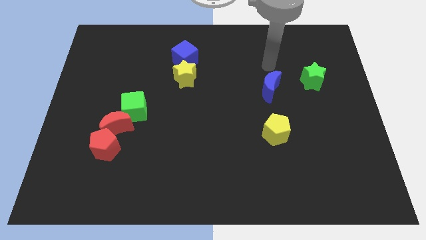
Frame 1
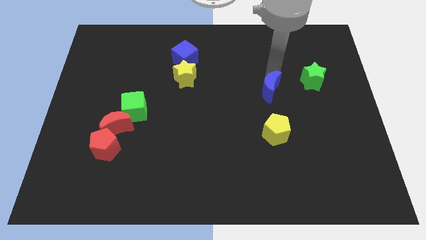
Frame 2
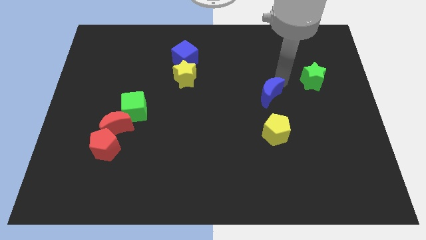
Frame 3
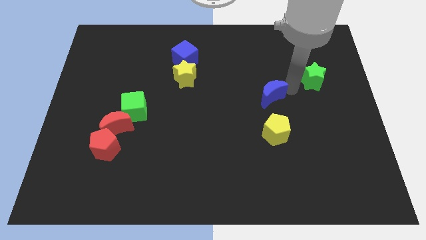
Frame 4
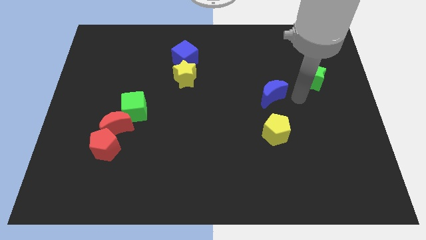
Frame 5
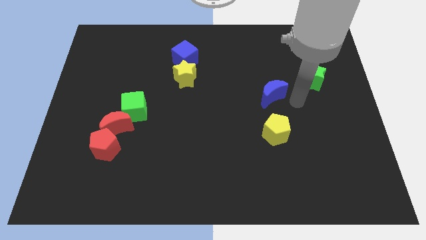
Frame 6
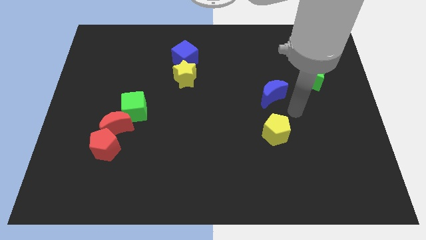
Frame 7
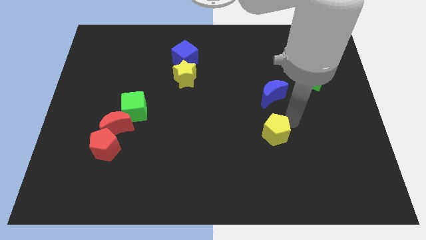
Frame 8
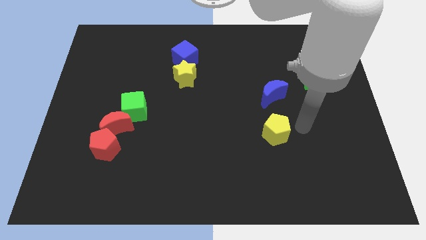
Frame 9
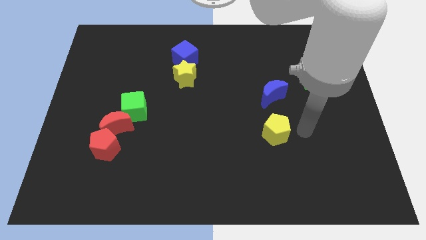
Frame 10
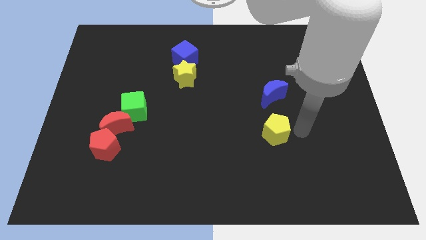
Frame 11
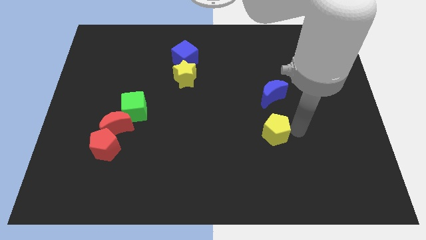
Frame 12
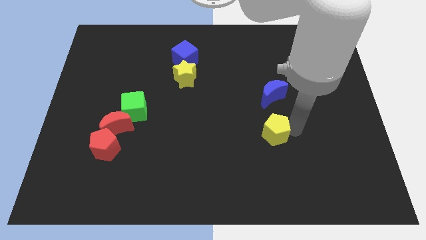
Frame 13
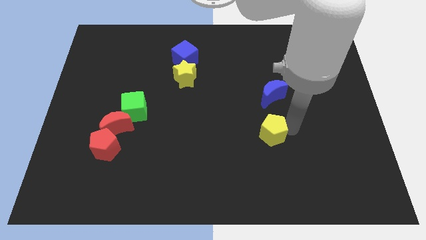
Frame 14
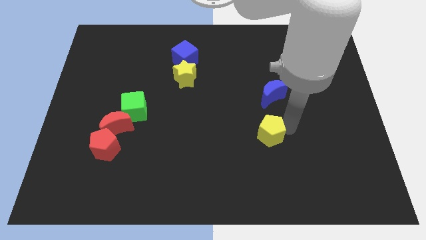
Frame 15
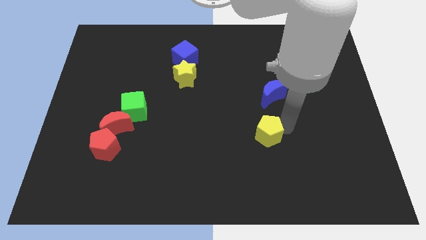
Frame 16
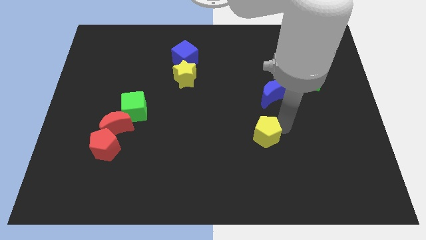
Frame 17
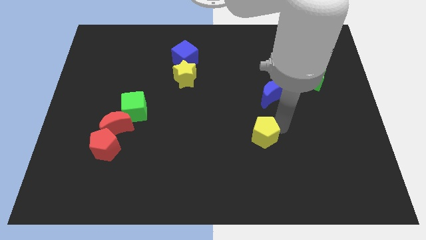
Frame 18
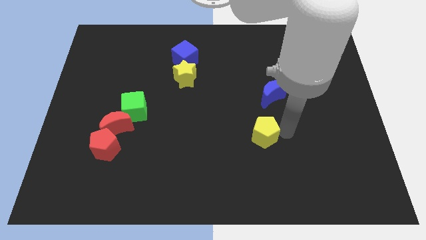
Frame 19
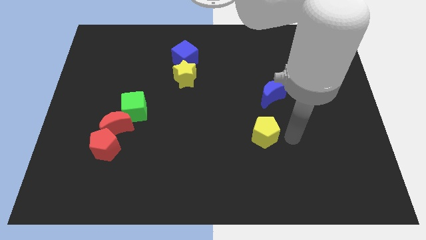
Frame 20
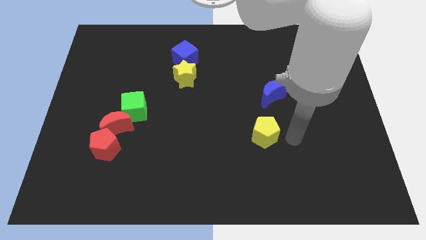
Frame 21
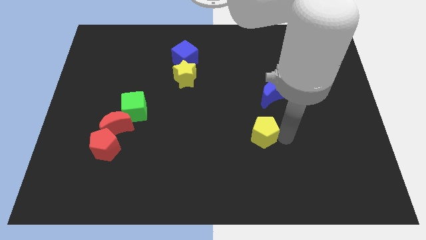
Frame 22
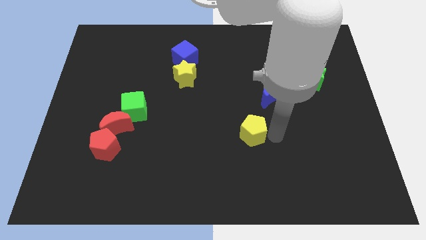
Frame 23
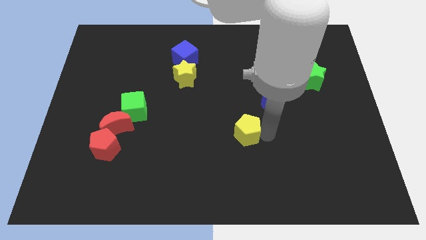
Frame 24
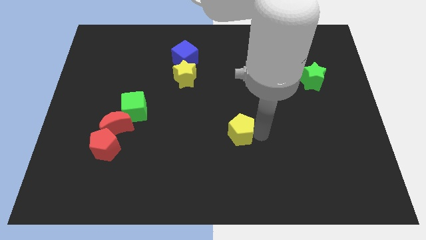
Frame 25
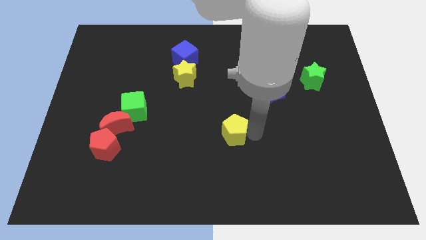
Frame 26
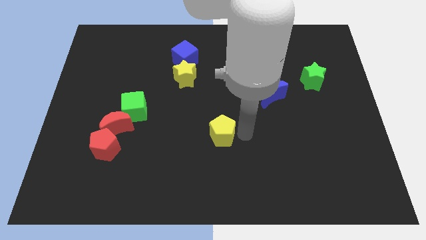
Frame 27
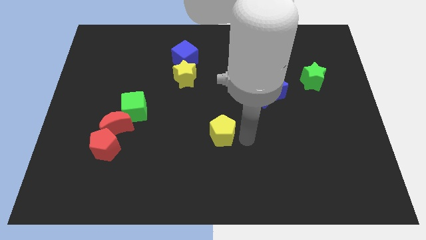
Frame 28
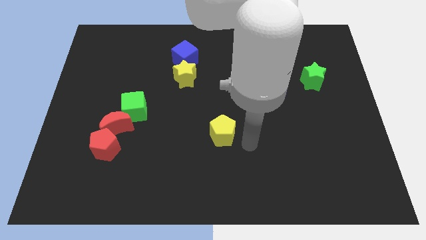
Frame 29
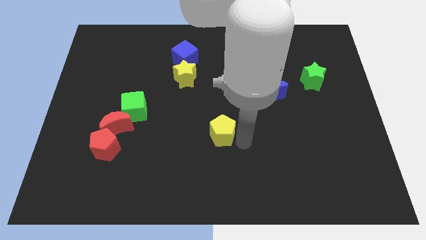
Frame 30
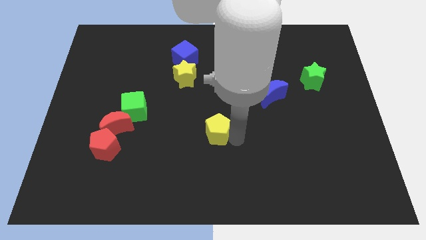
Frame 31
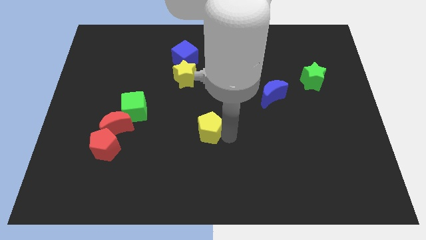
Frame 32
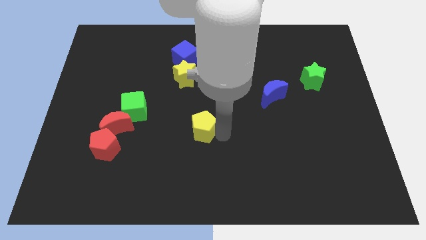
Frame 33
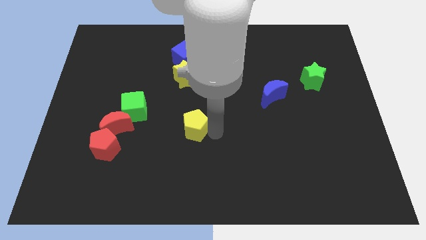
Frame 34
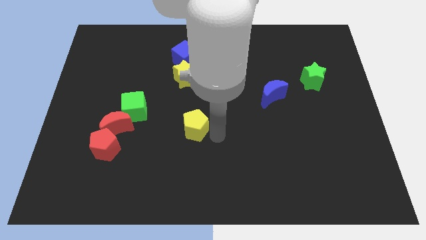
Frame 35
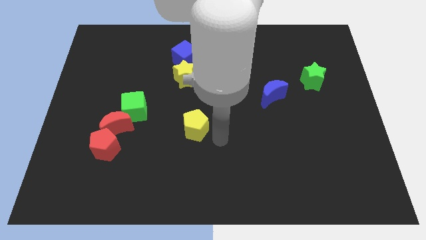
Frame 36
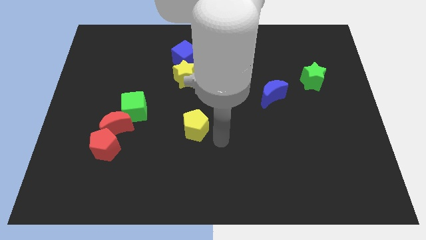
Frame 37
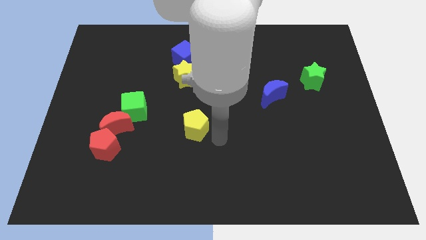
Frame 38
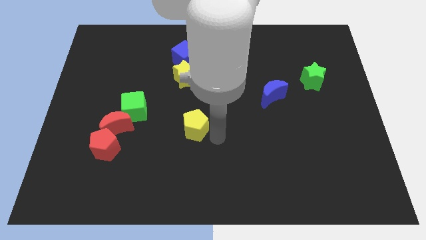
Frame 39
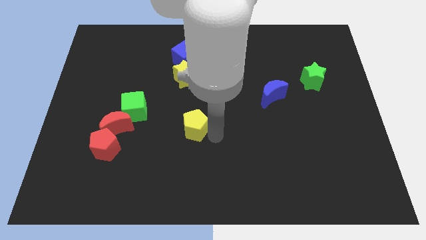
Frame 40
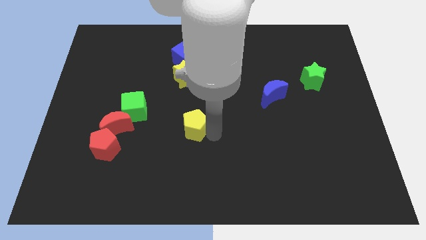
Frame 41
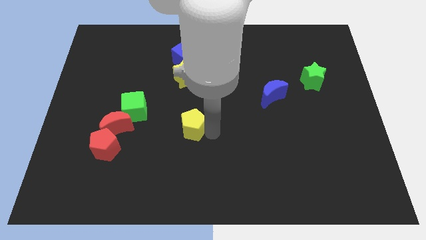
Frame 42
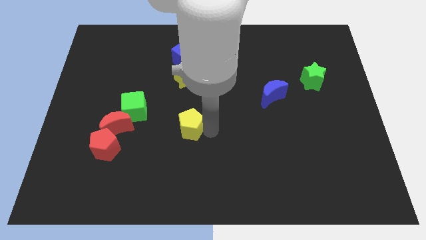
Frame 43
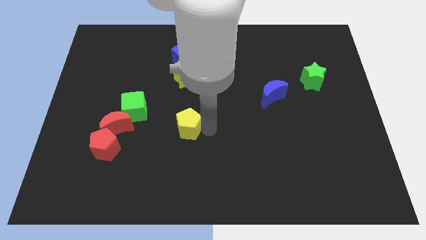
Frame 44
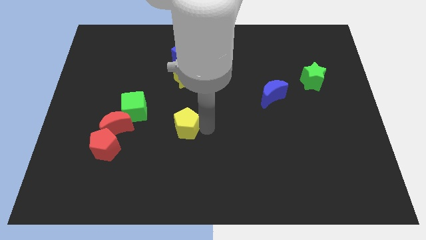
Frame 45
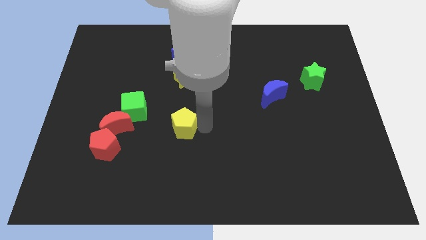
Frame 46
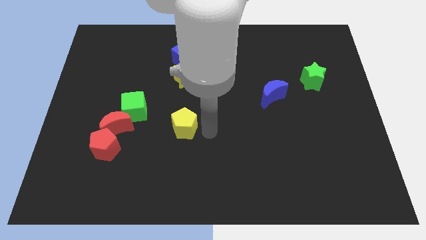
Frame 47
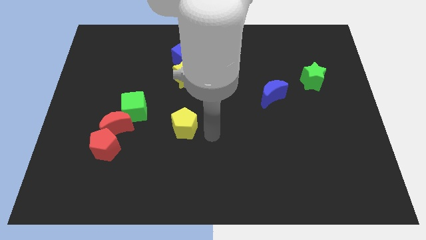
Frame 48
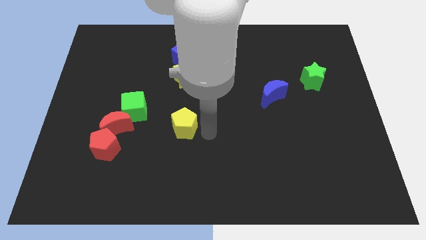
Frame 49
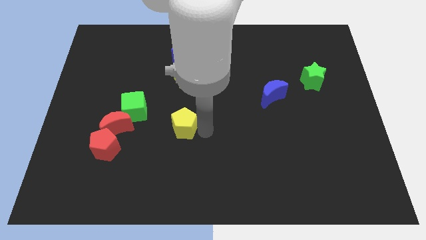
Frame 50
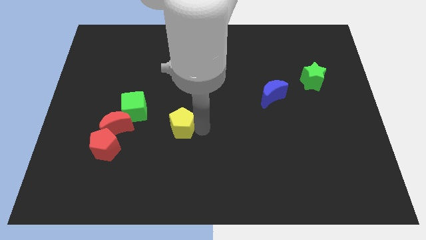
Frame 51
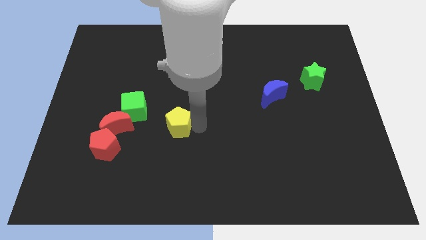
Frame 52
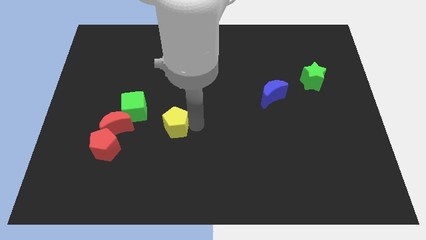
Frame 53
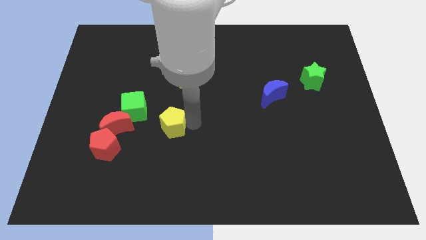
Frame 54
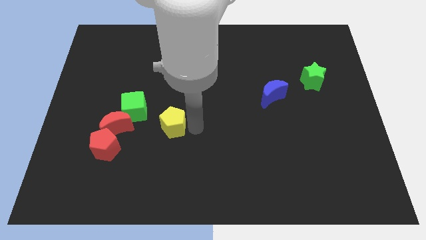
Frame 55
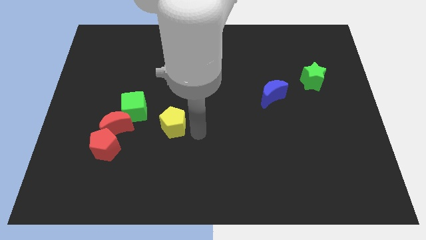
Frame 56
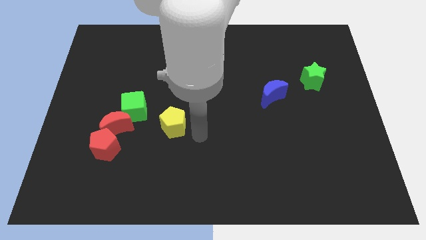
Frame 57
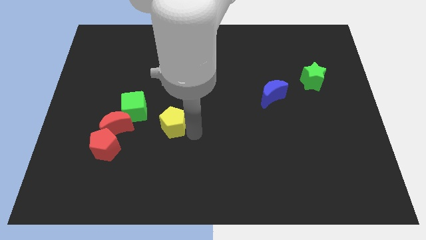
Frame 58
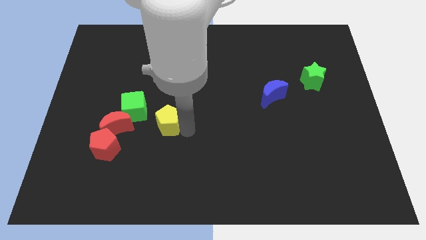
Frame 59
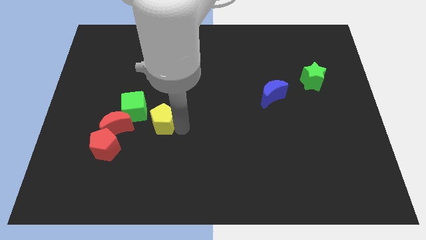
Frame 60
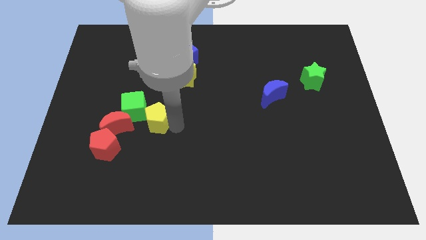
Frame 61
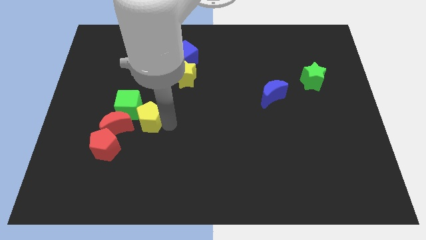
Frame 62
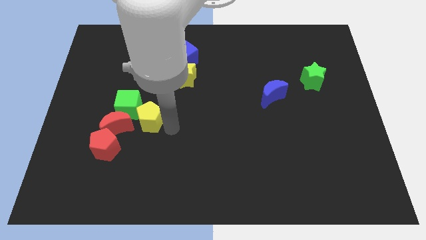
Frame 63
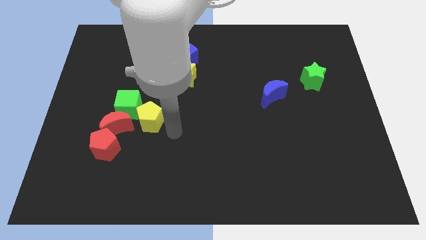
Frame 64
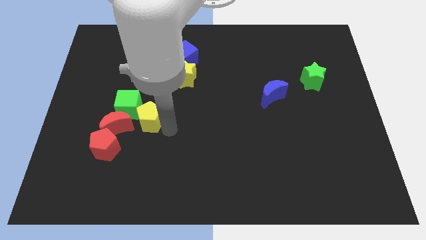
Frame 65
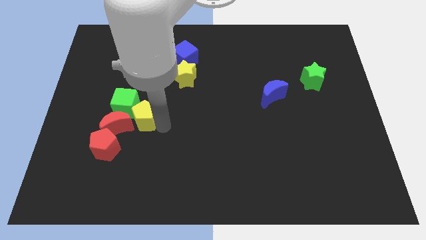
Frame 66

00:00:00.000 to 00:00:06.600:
slide the yellow pentagon close to the green cube

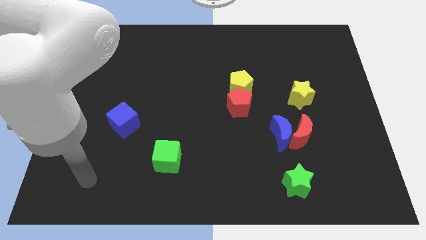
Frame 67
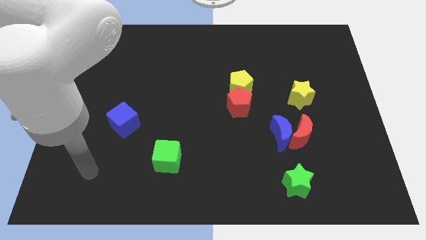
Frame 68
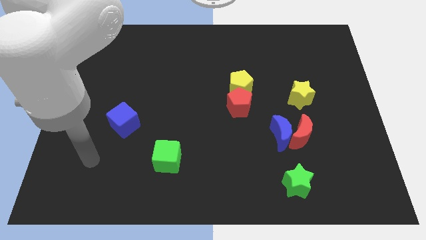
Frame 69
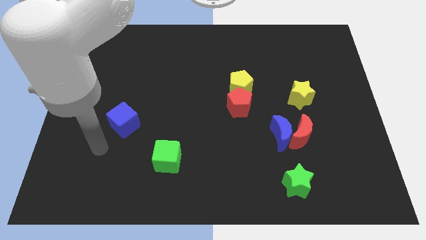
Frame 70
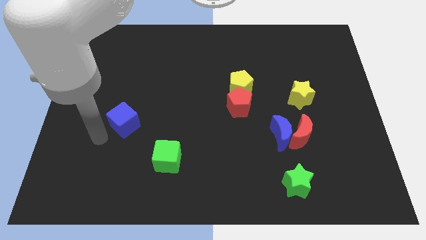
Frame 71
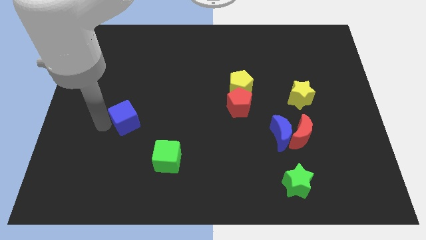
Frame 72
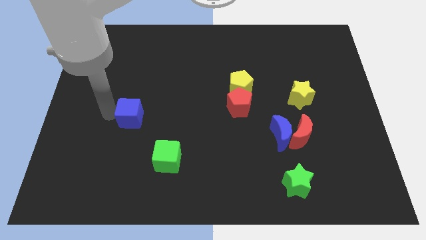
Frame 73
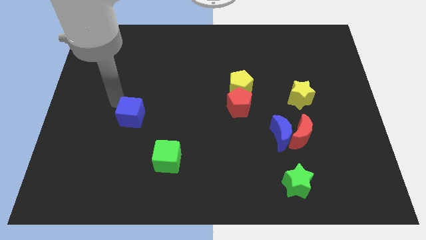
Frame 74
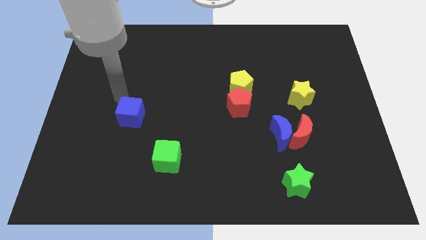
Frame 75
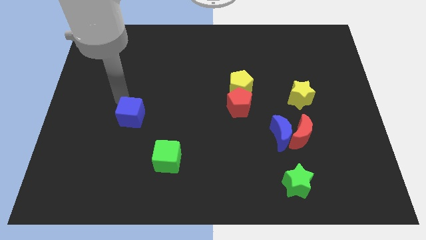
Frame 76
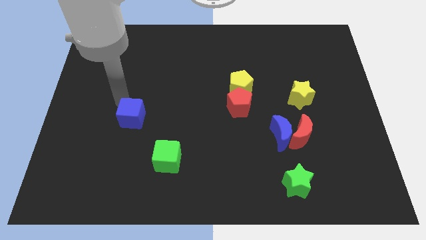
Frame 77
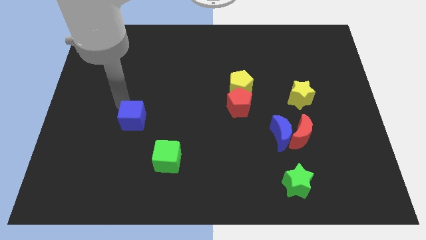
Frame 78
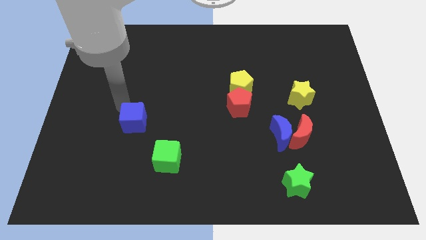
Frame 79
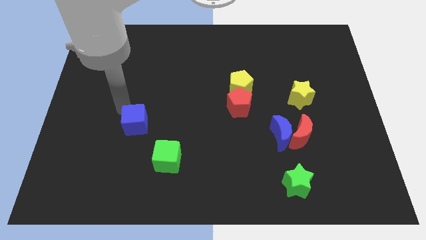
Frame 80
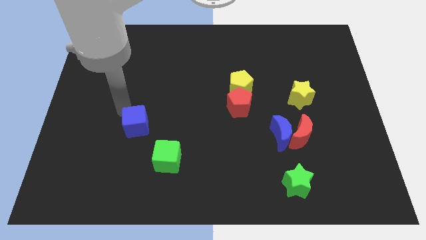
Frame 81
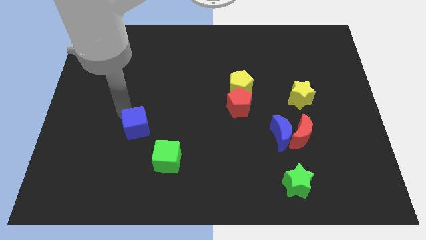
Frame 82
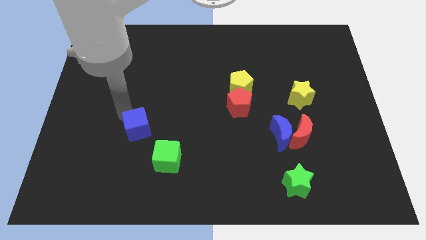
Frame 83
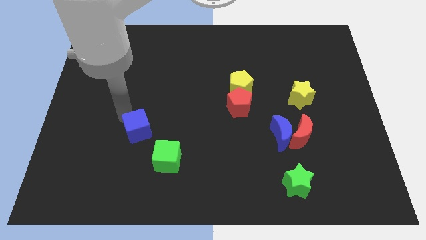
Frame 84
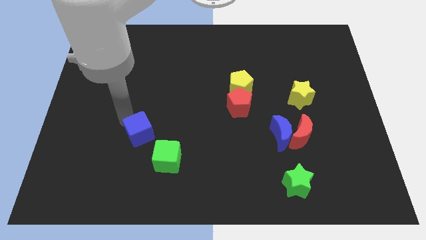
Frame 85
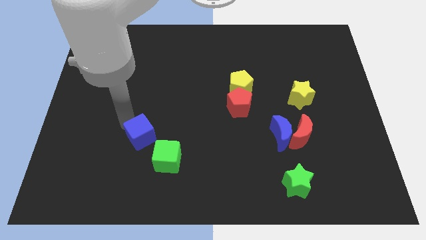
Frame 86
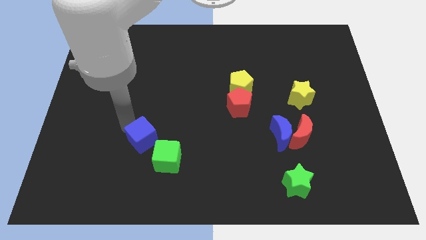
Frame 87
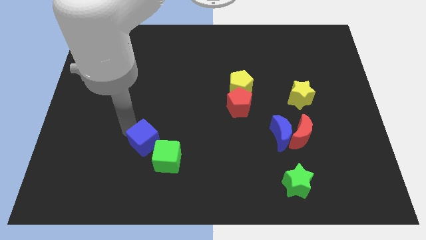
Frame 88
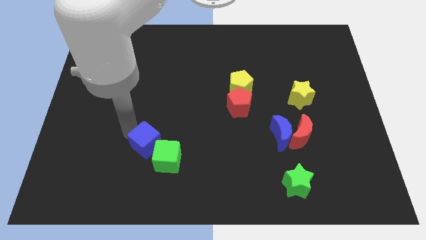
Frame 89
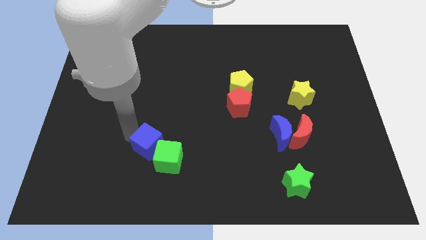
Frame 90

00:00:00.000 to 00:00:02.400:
move the blue cube to the green cube
